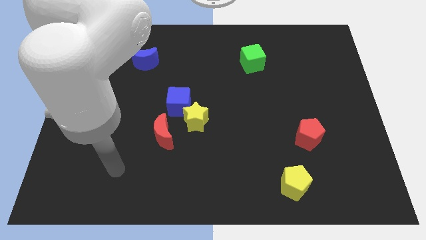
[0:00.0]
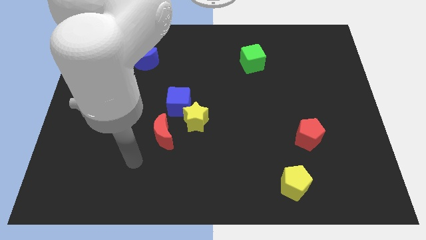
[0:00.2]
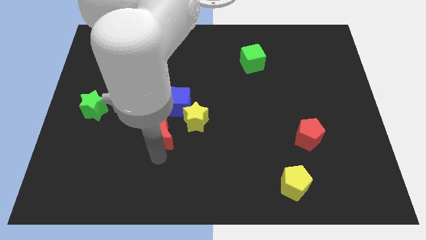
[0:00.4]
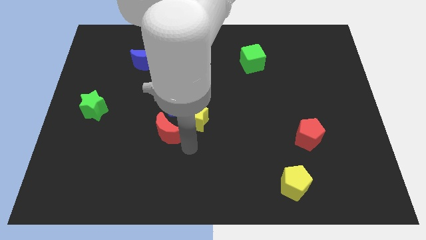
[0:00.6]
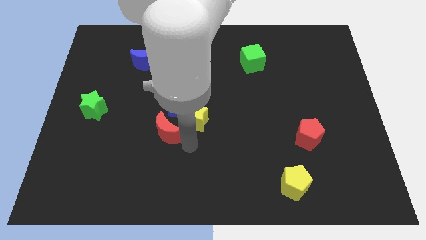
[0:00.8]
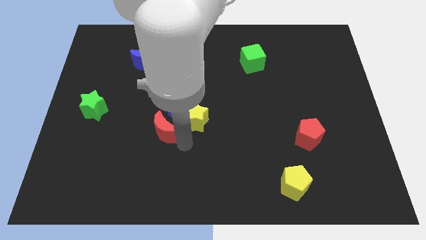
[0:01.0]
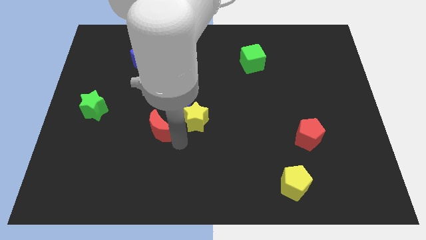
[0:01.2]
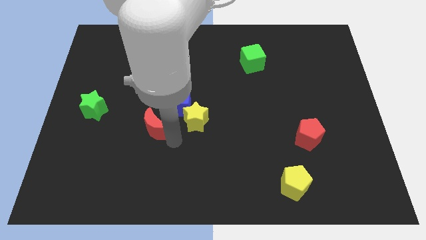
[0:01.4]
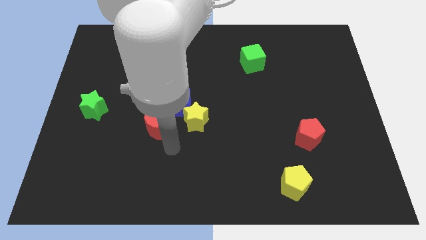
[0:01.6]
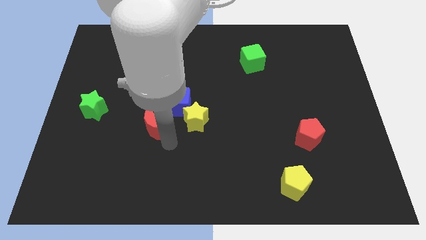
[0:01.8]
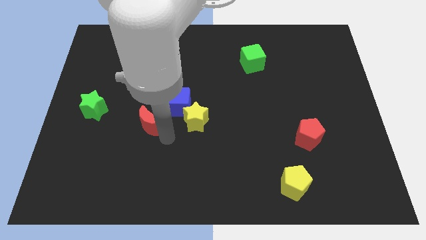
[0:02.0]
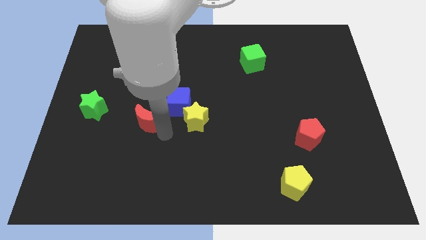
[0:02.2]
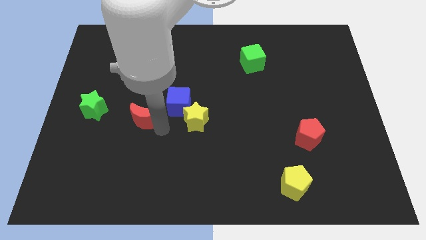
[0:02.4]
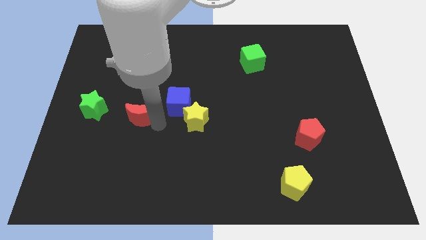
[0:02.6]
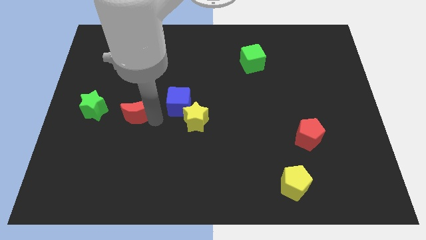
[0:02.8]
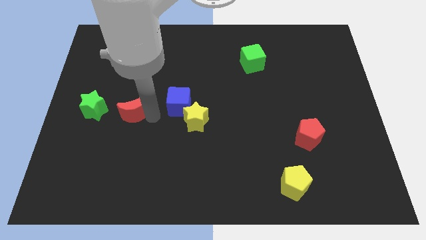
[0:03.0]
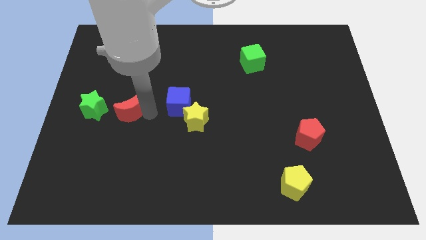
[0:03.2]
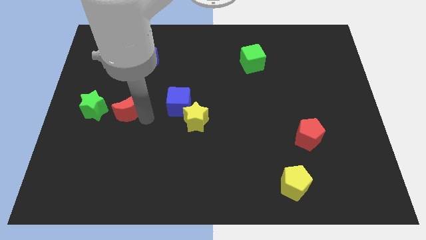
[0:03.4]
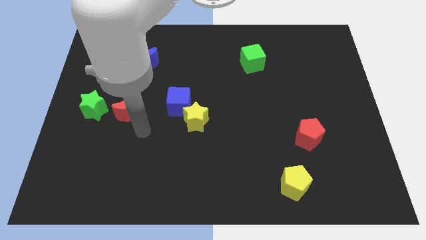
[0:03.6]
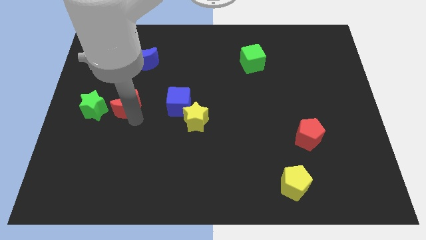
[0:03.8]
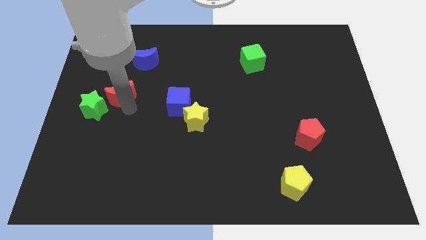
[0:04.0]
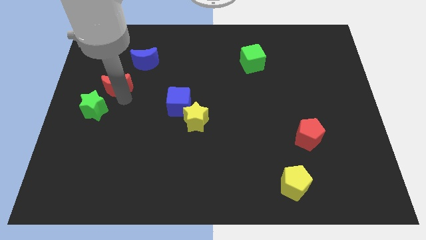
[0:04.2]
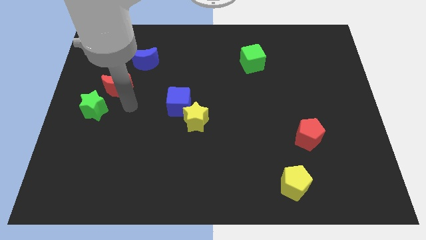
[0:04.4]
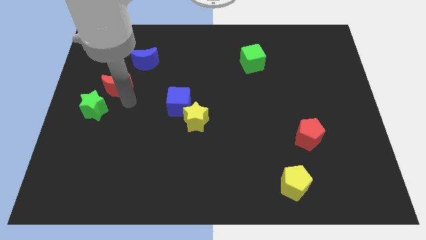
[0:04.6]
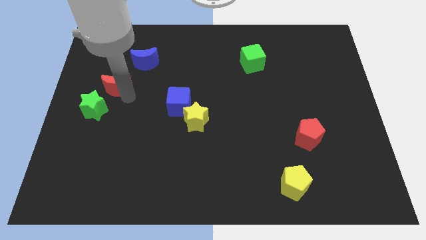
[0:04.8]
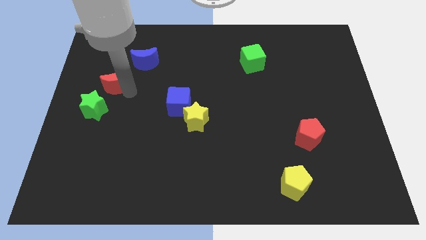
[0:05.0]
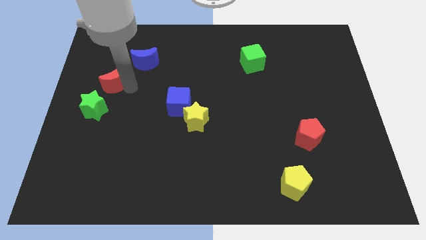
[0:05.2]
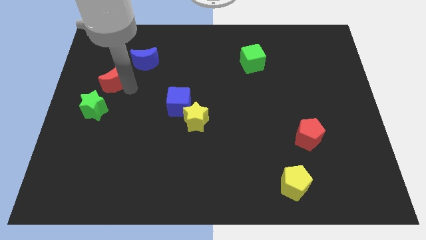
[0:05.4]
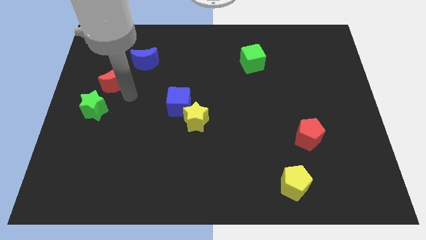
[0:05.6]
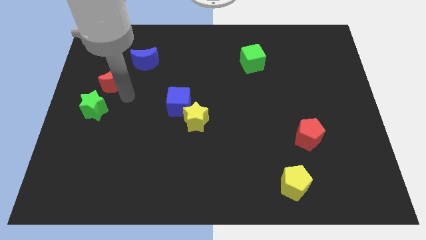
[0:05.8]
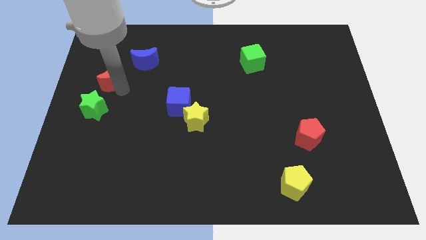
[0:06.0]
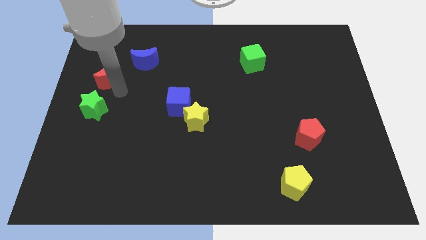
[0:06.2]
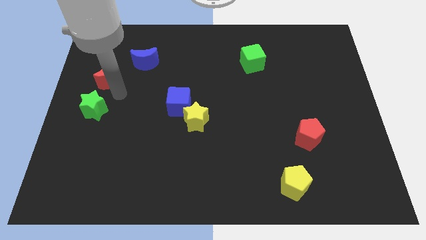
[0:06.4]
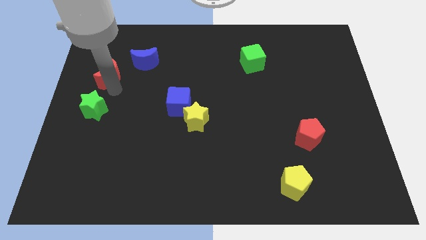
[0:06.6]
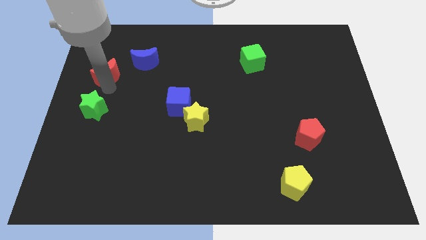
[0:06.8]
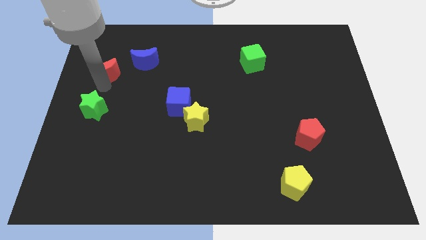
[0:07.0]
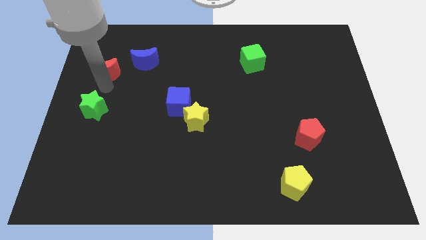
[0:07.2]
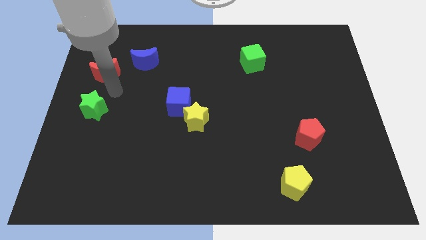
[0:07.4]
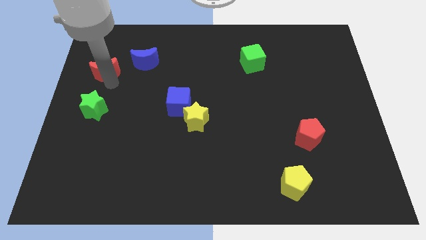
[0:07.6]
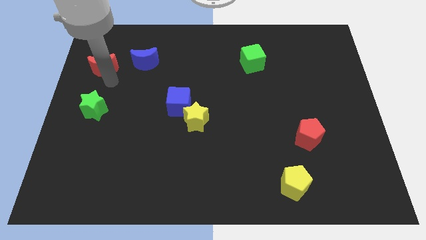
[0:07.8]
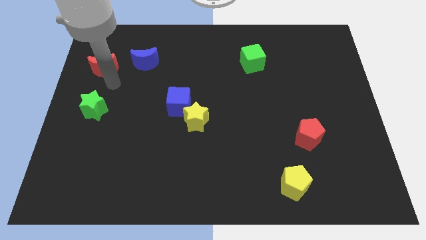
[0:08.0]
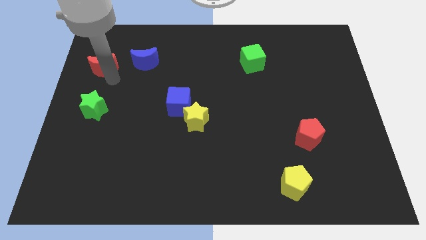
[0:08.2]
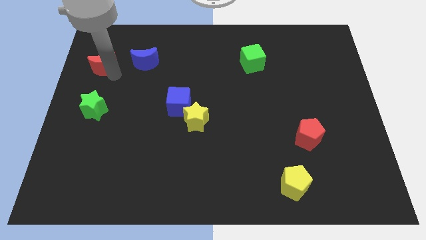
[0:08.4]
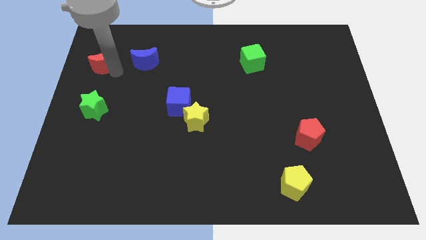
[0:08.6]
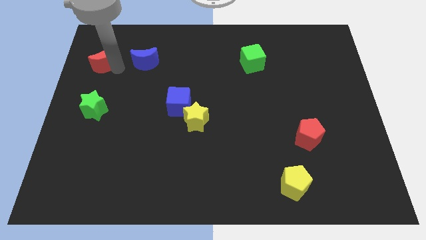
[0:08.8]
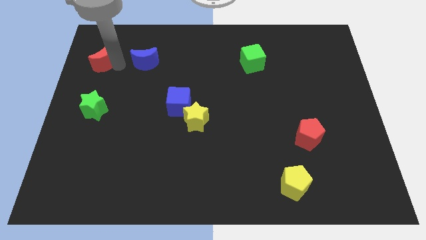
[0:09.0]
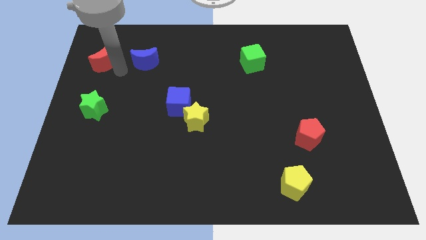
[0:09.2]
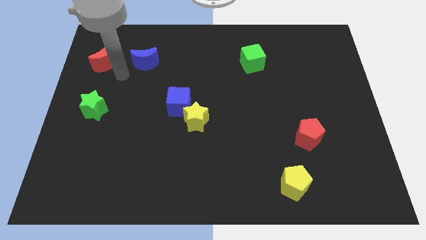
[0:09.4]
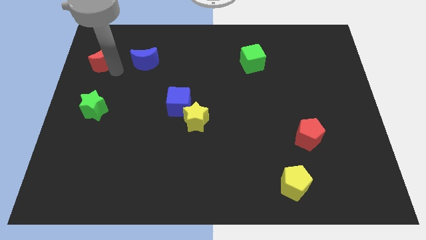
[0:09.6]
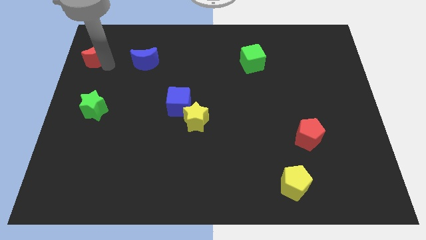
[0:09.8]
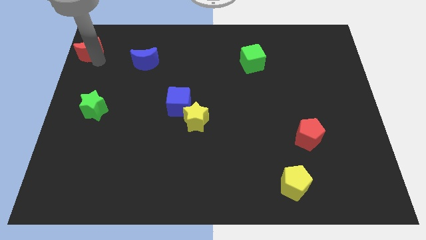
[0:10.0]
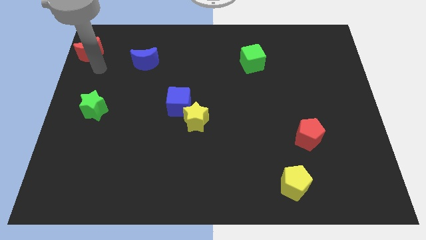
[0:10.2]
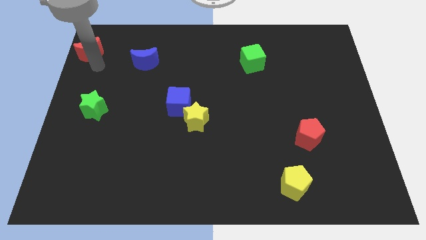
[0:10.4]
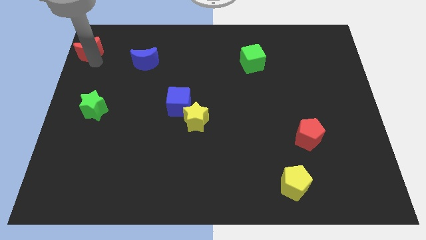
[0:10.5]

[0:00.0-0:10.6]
move the red moon to the upper left corner

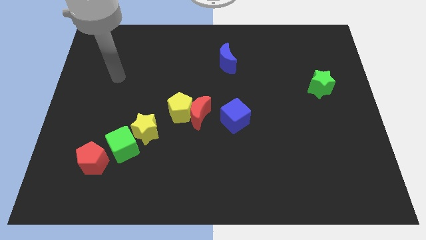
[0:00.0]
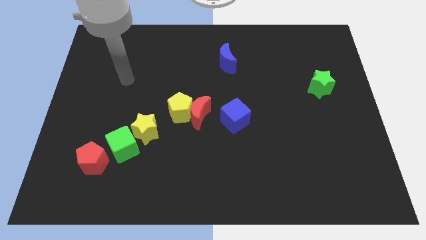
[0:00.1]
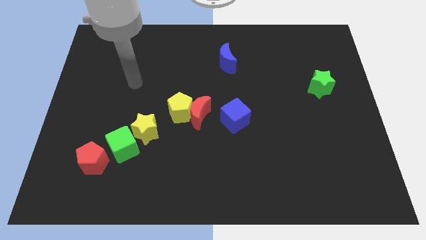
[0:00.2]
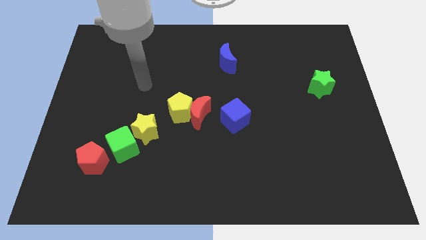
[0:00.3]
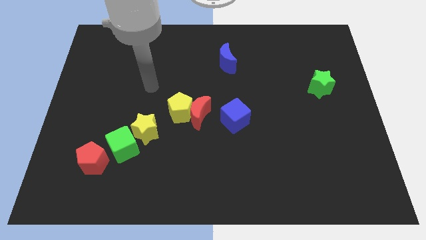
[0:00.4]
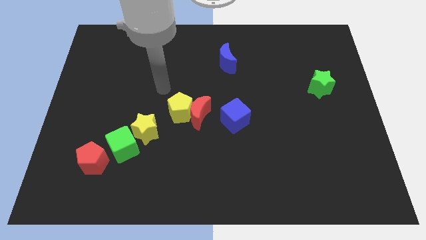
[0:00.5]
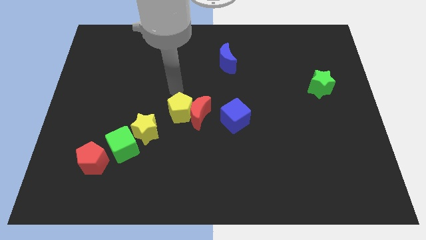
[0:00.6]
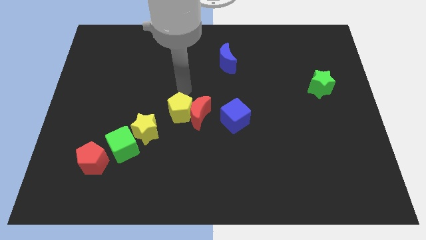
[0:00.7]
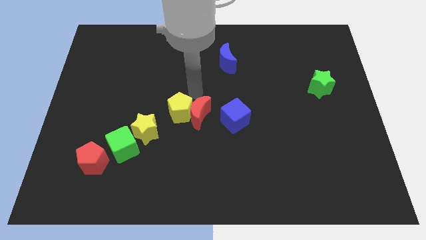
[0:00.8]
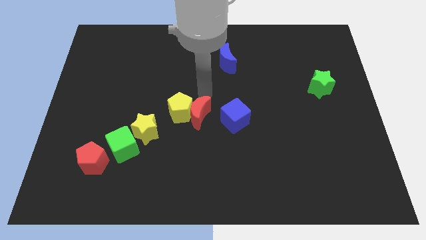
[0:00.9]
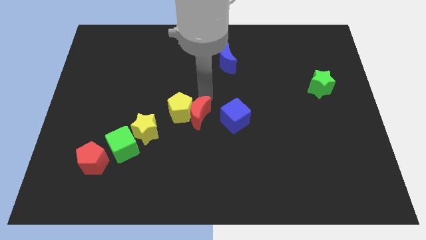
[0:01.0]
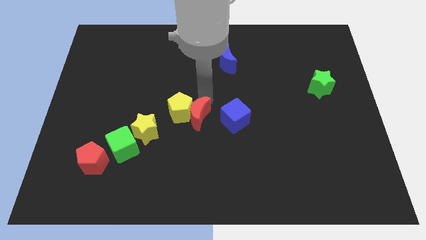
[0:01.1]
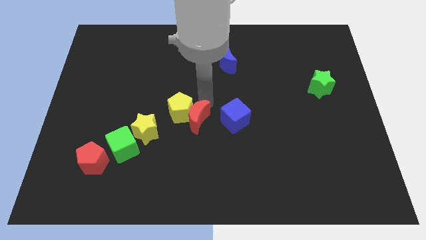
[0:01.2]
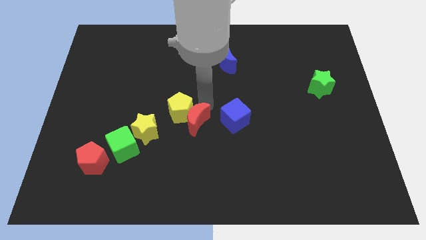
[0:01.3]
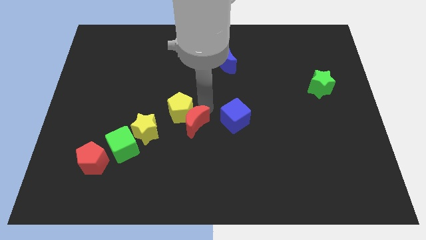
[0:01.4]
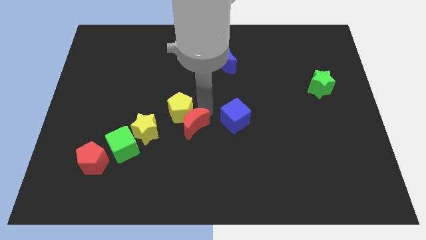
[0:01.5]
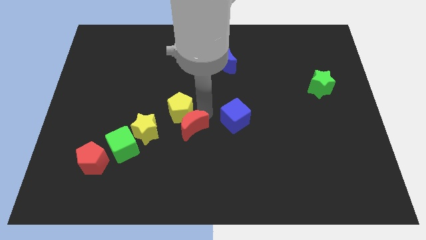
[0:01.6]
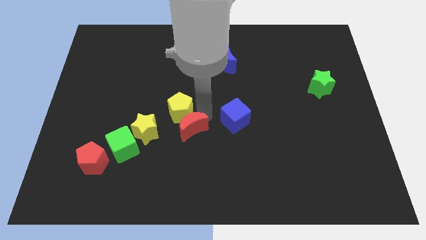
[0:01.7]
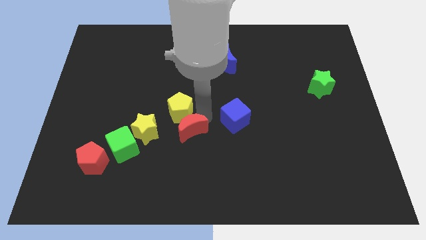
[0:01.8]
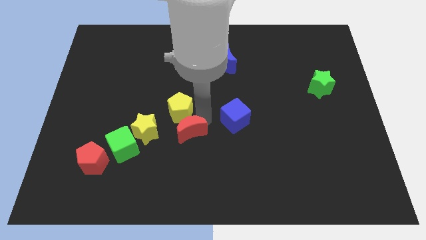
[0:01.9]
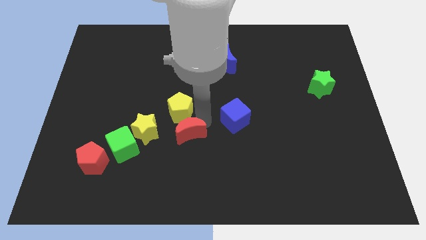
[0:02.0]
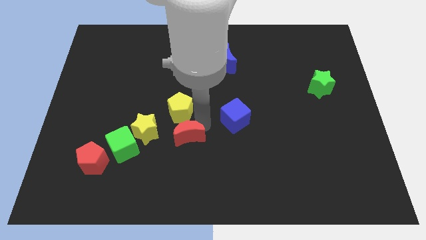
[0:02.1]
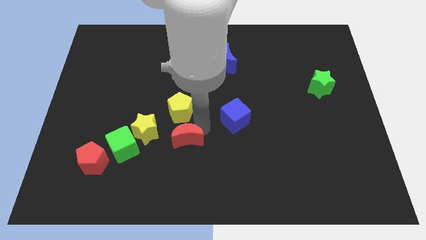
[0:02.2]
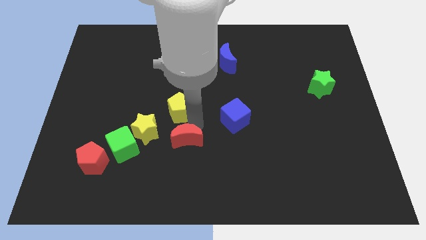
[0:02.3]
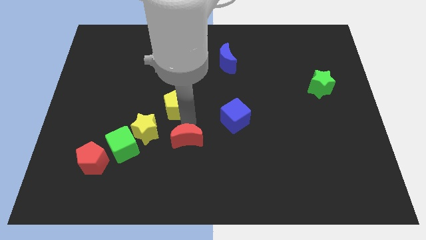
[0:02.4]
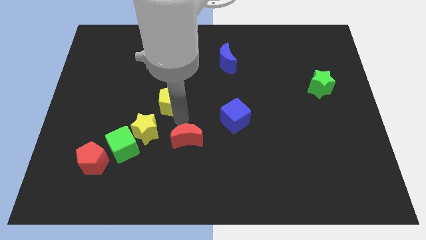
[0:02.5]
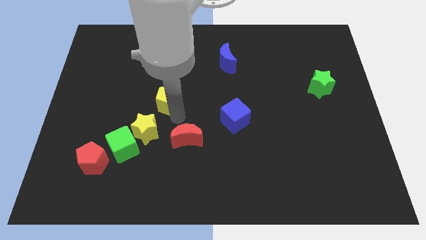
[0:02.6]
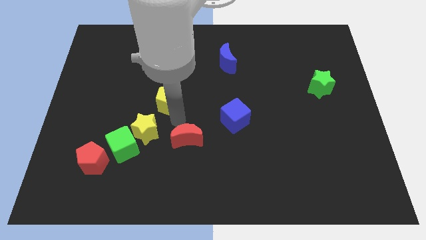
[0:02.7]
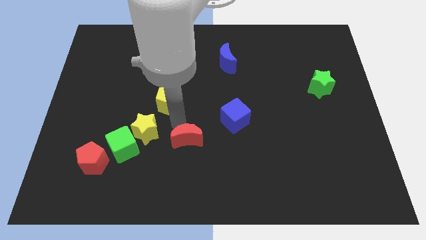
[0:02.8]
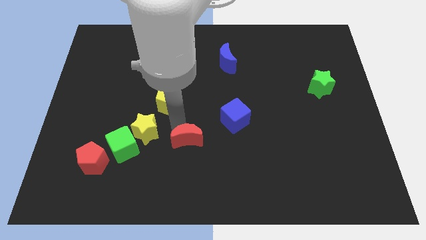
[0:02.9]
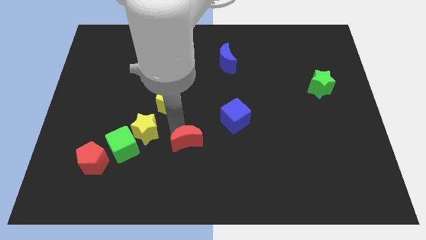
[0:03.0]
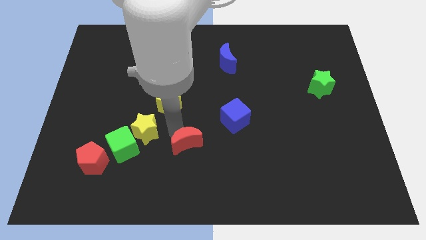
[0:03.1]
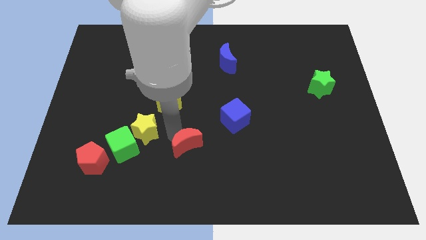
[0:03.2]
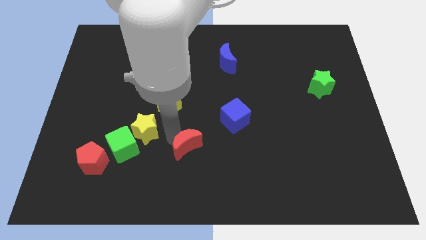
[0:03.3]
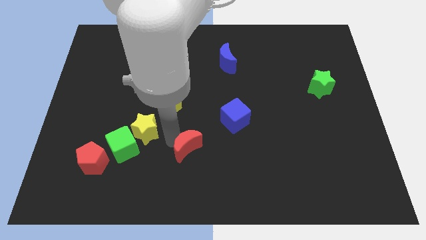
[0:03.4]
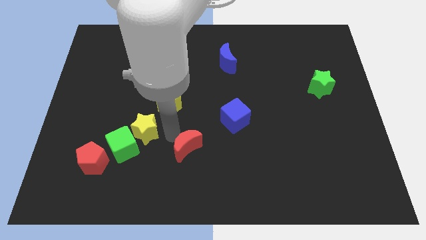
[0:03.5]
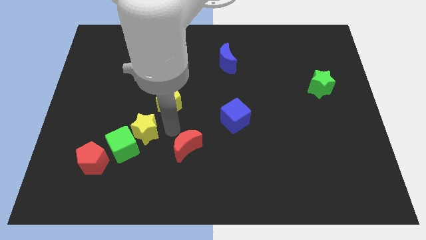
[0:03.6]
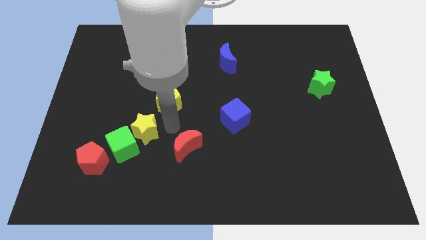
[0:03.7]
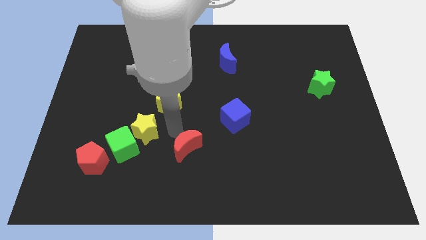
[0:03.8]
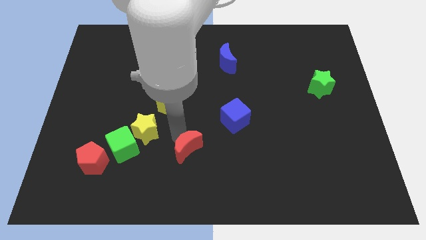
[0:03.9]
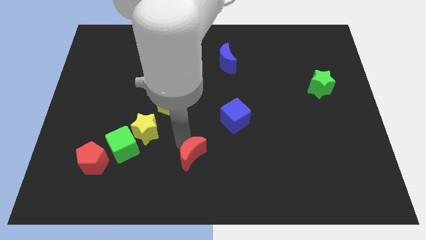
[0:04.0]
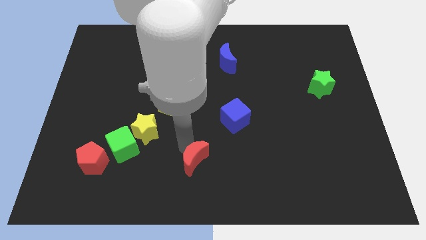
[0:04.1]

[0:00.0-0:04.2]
move the red moon to the bottom side
